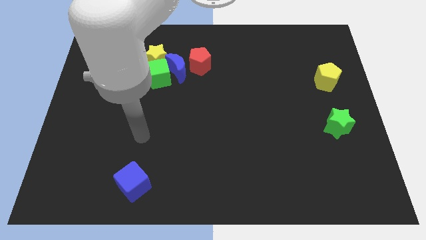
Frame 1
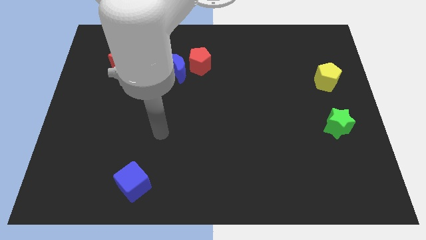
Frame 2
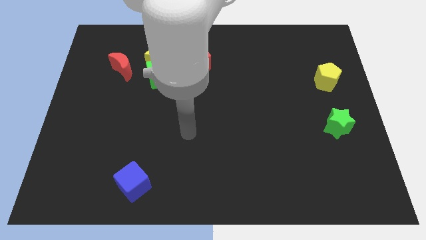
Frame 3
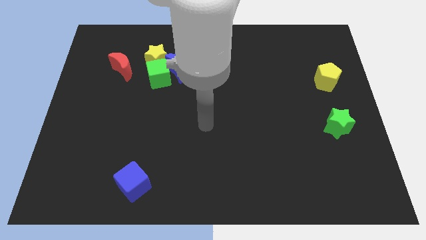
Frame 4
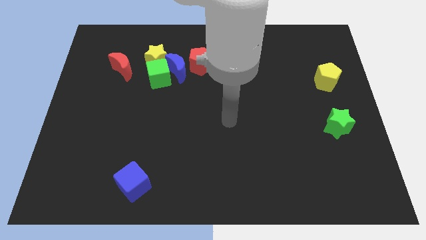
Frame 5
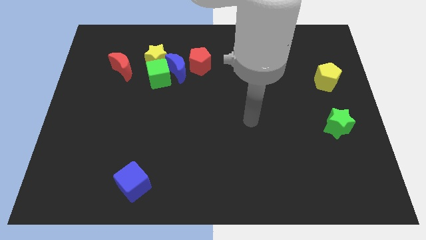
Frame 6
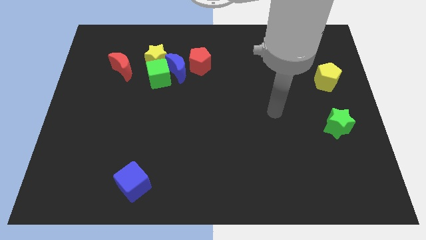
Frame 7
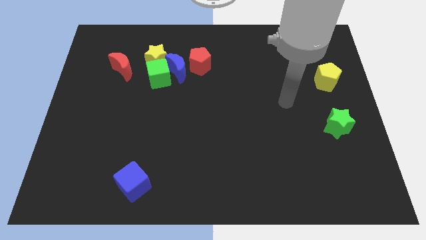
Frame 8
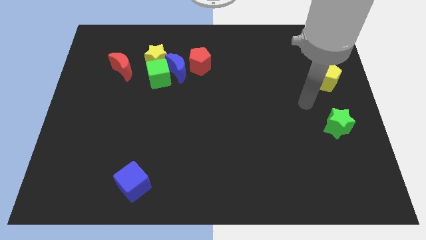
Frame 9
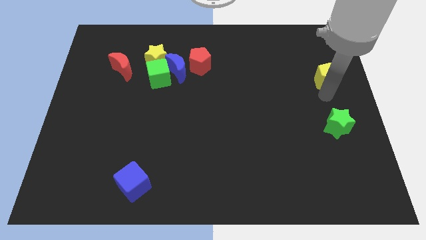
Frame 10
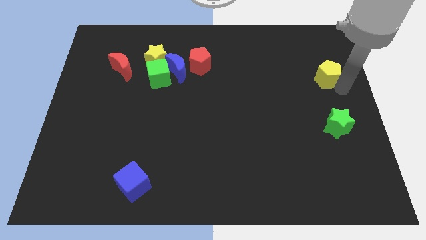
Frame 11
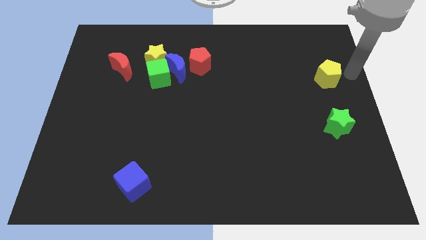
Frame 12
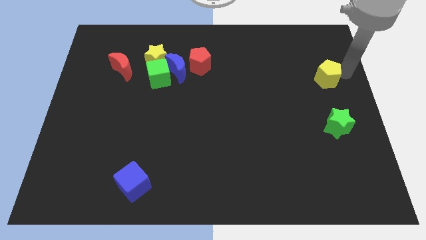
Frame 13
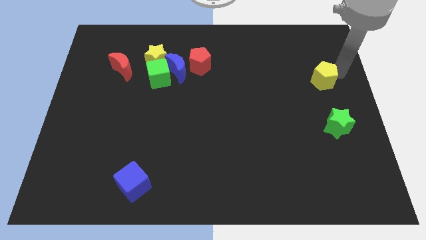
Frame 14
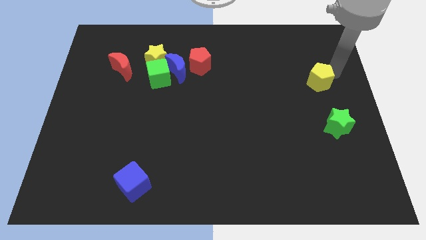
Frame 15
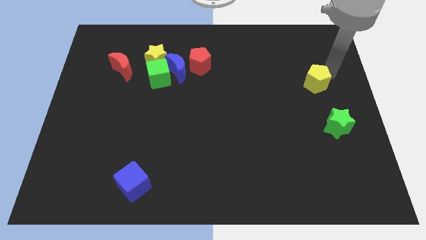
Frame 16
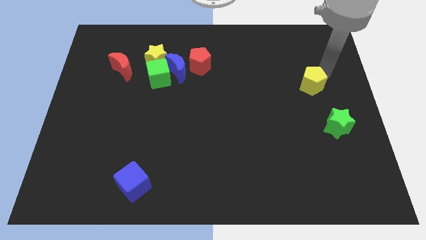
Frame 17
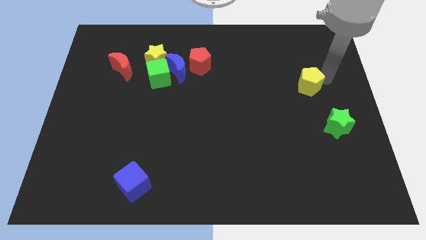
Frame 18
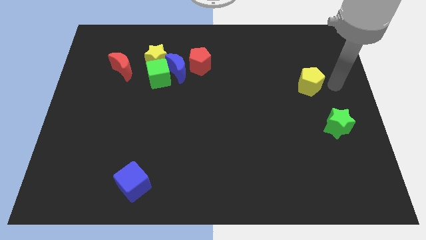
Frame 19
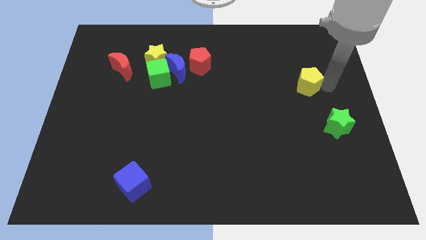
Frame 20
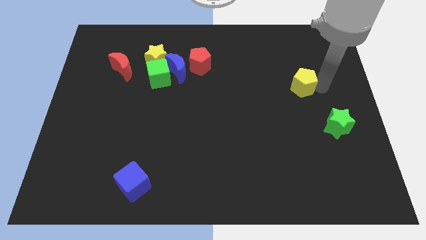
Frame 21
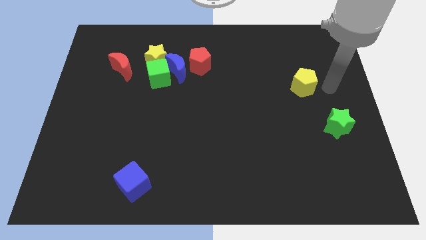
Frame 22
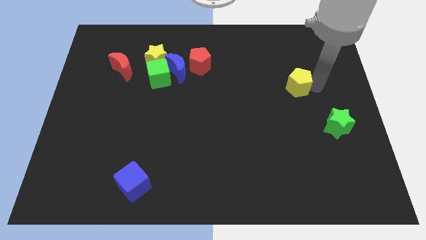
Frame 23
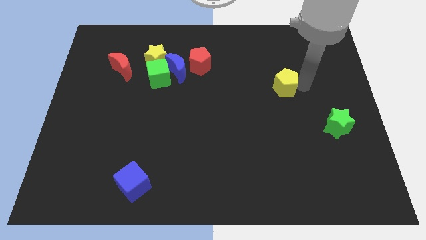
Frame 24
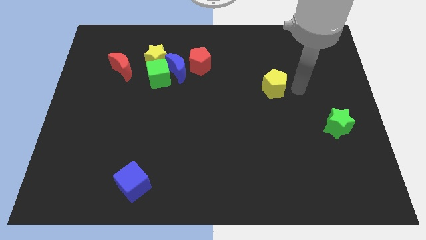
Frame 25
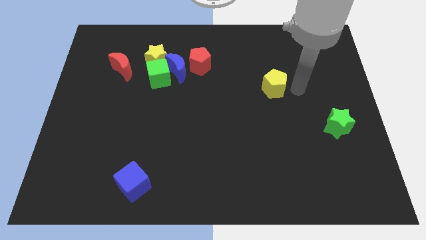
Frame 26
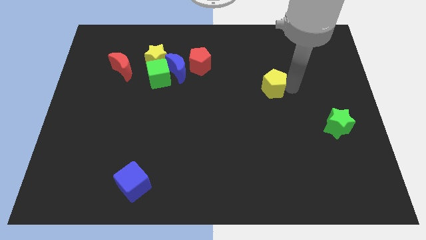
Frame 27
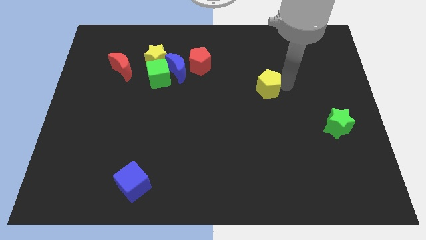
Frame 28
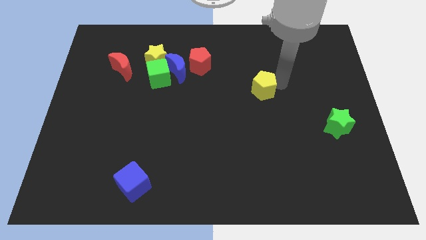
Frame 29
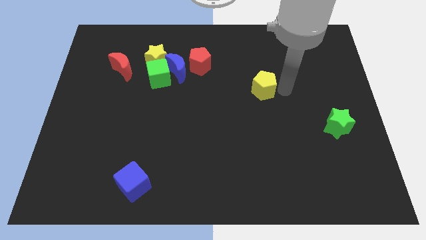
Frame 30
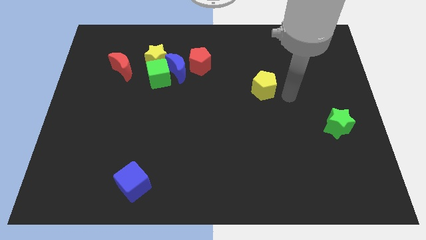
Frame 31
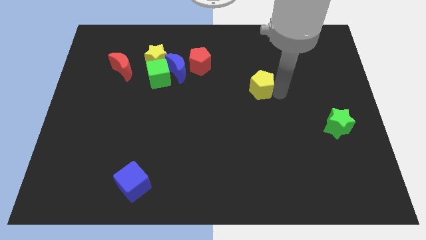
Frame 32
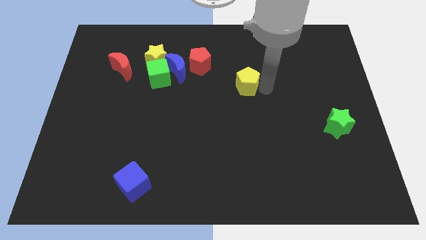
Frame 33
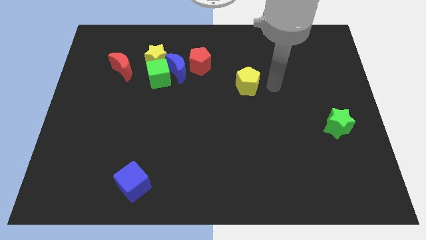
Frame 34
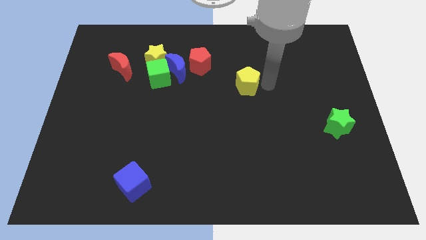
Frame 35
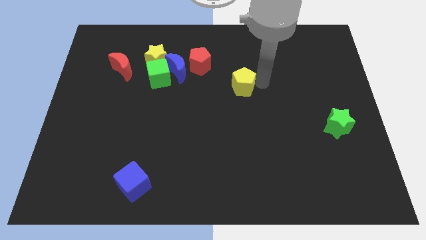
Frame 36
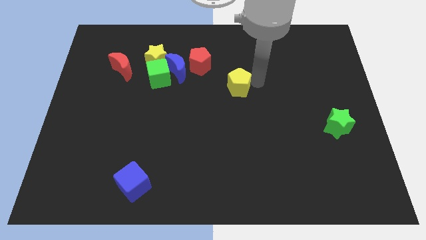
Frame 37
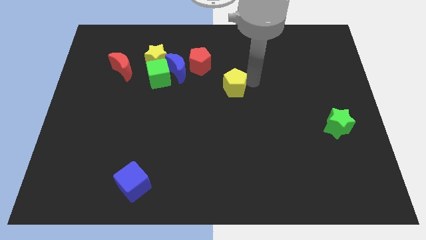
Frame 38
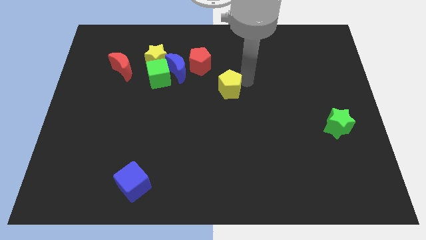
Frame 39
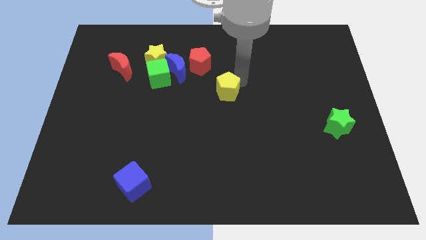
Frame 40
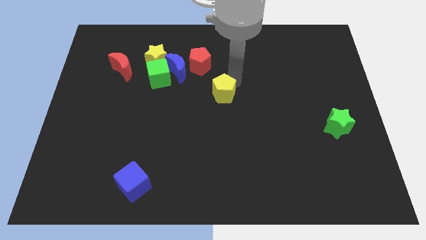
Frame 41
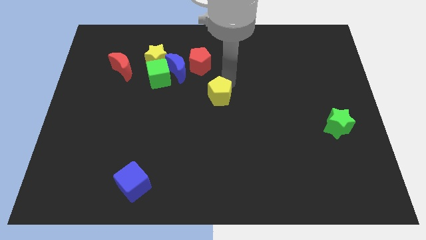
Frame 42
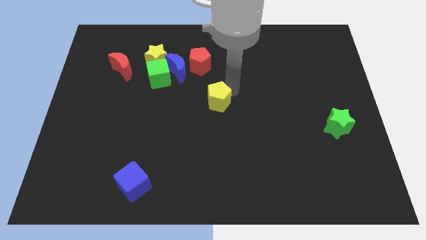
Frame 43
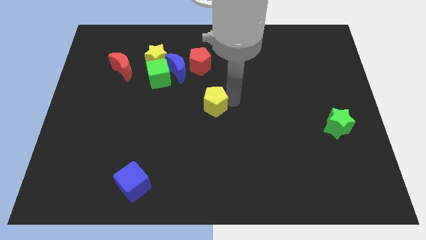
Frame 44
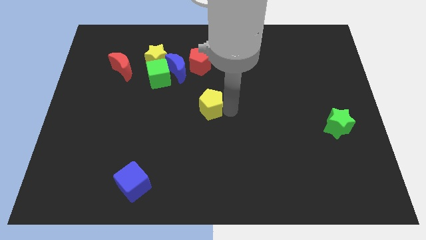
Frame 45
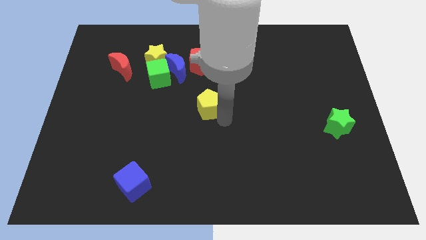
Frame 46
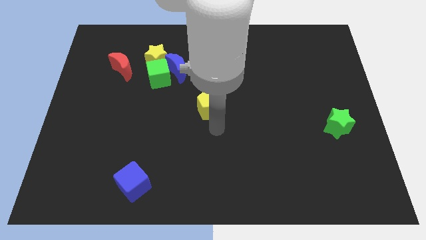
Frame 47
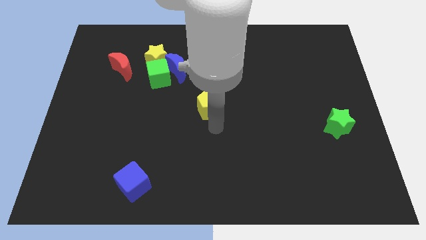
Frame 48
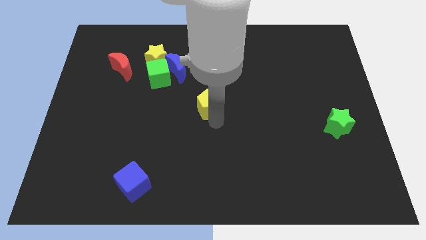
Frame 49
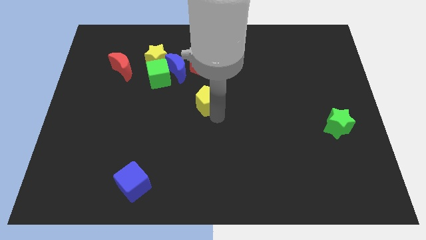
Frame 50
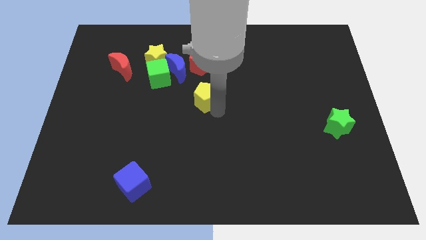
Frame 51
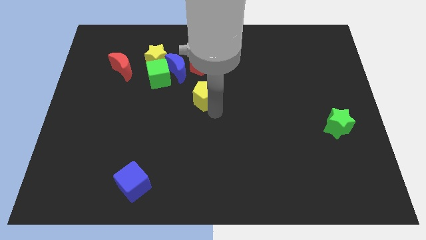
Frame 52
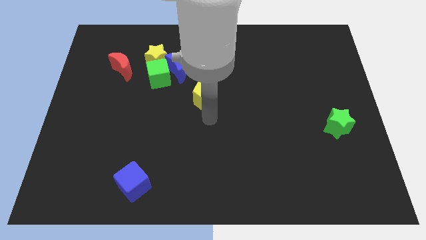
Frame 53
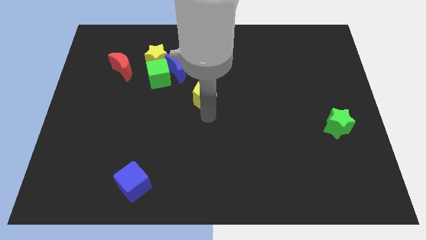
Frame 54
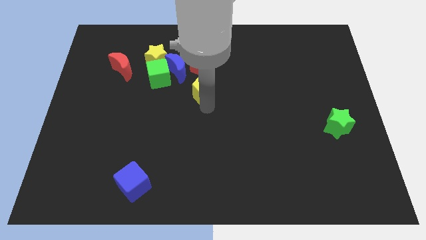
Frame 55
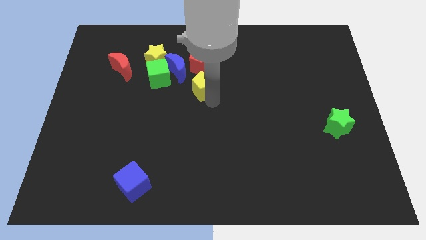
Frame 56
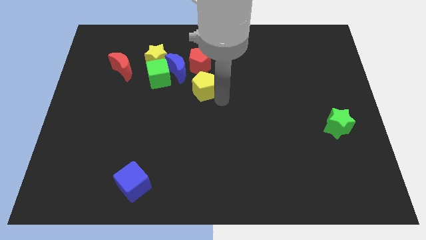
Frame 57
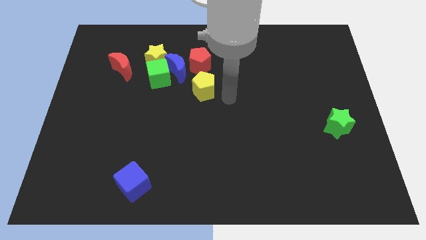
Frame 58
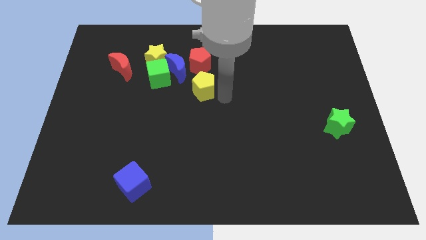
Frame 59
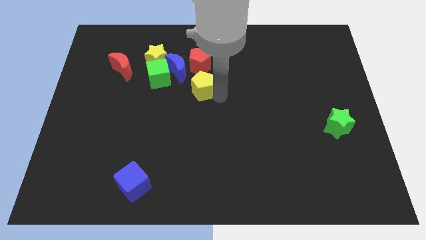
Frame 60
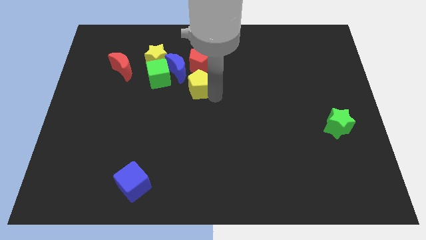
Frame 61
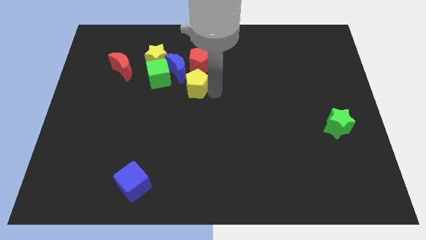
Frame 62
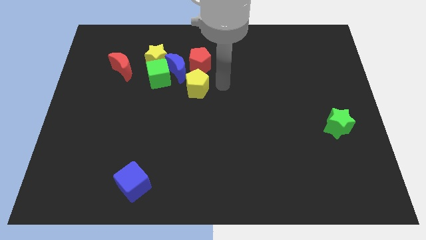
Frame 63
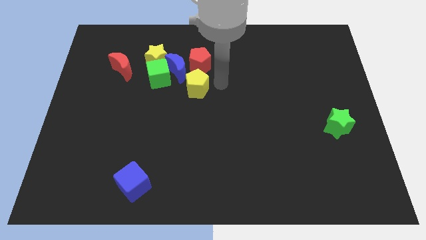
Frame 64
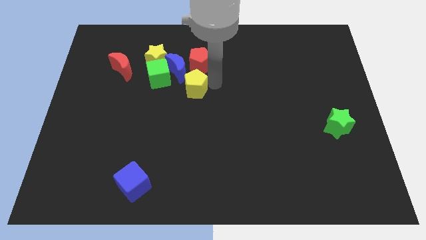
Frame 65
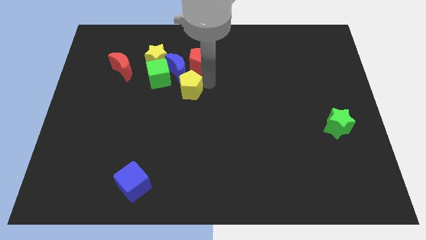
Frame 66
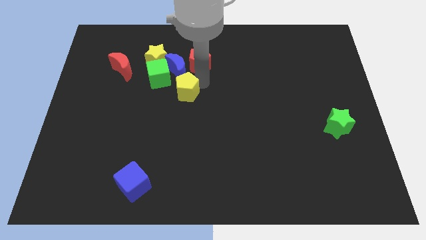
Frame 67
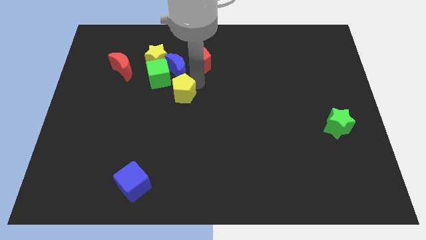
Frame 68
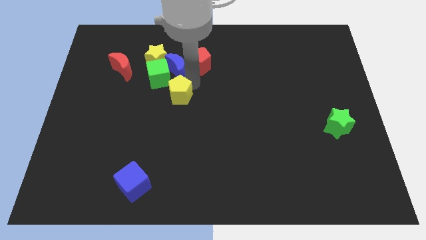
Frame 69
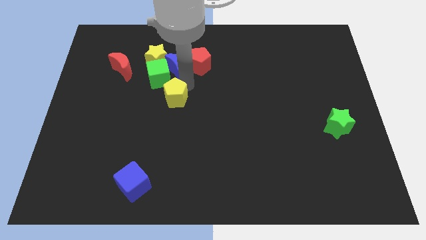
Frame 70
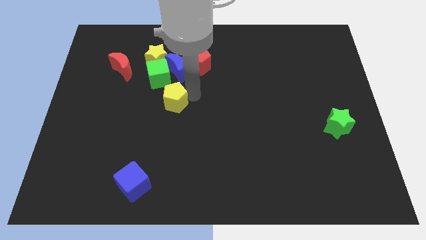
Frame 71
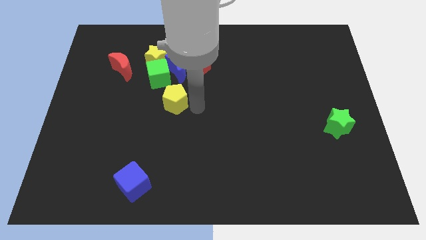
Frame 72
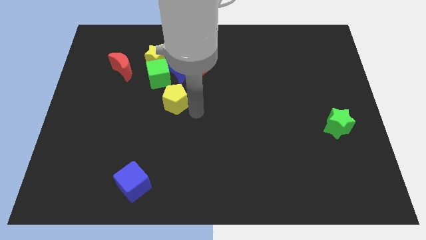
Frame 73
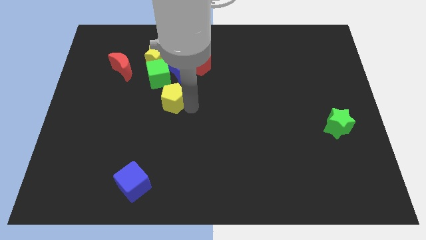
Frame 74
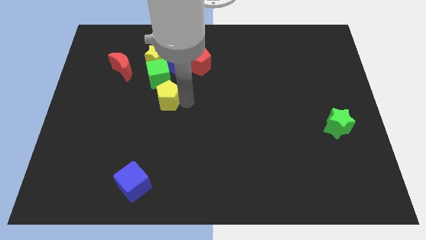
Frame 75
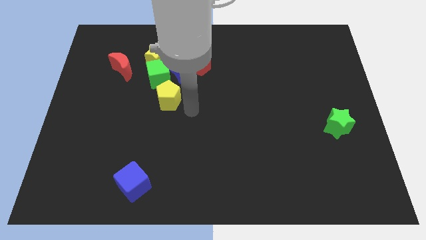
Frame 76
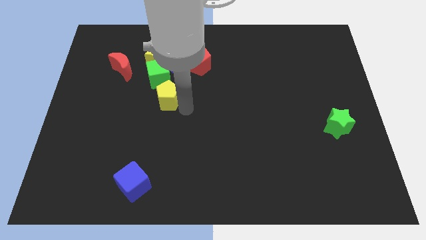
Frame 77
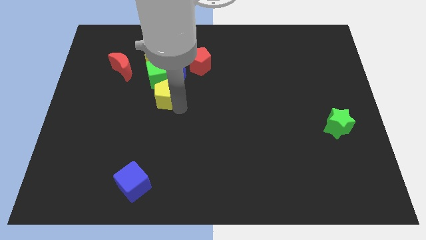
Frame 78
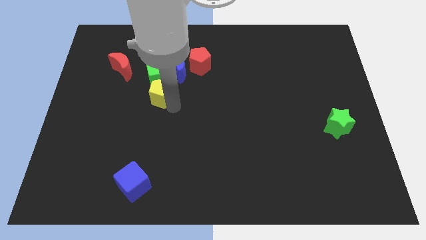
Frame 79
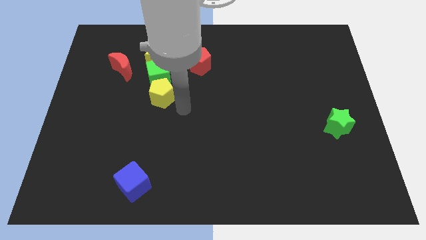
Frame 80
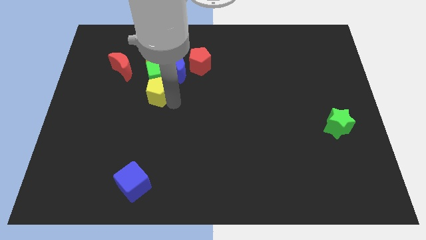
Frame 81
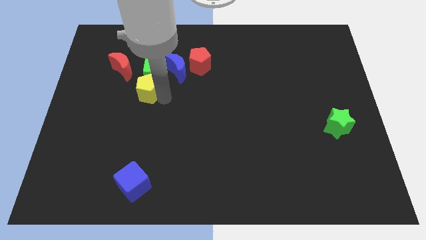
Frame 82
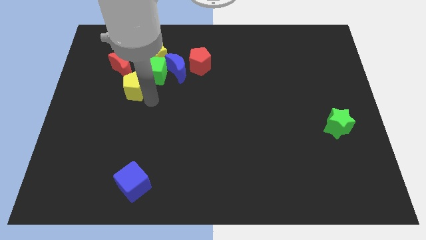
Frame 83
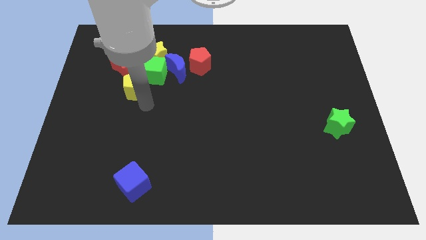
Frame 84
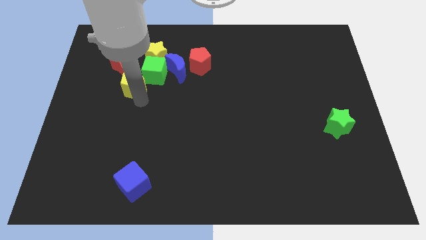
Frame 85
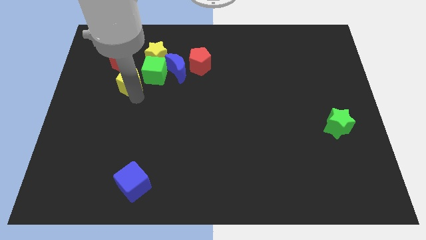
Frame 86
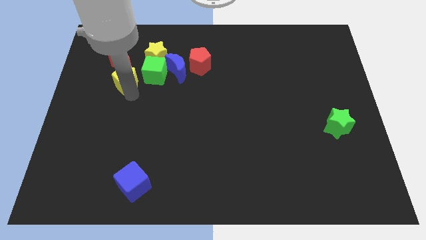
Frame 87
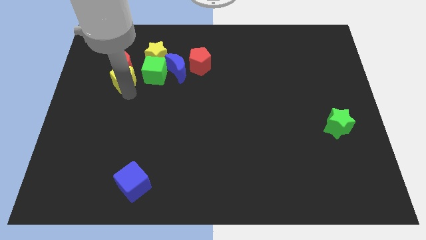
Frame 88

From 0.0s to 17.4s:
push the yellow pentagon close to the red moon
